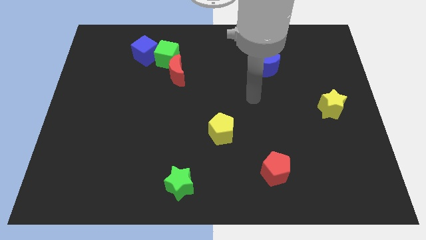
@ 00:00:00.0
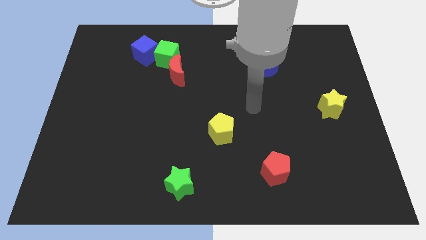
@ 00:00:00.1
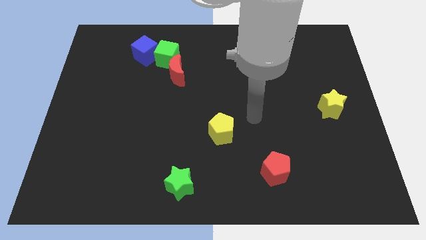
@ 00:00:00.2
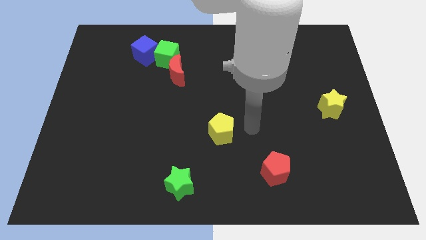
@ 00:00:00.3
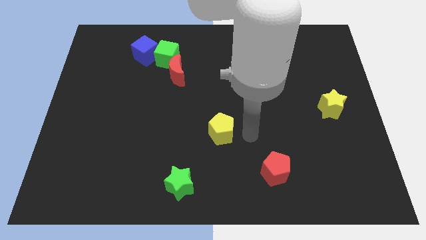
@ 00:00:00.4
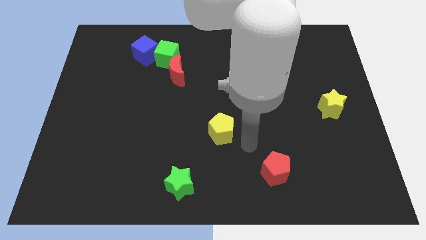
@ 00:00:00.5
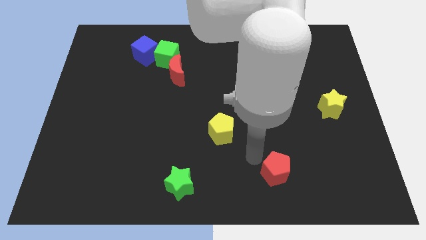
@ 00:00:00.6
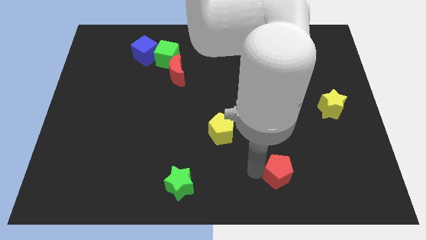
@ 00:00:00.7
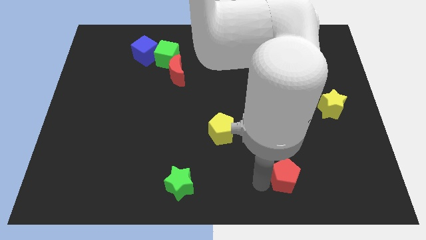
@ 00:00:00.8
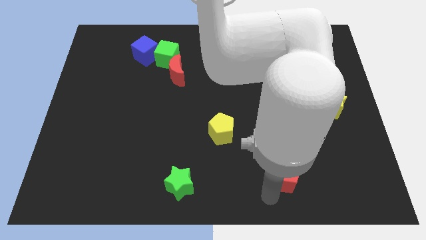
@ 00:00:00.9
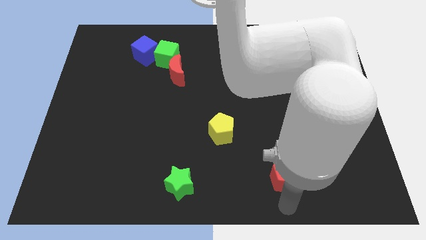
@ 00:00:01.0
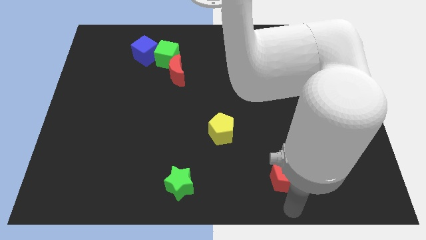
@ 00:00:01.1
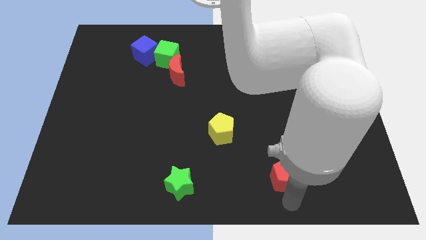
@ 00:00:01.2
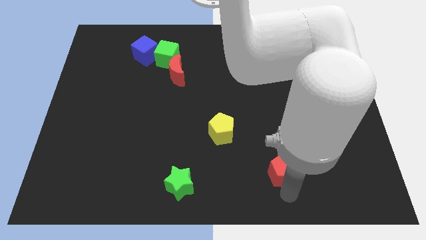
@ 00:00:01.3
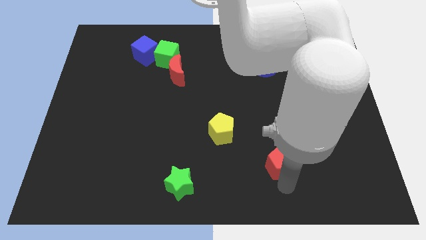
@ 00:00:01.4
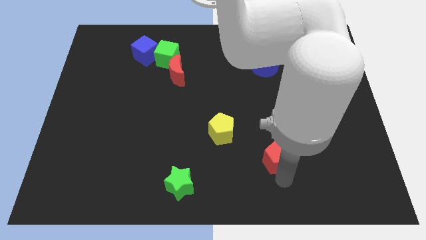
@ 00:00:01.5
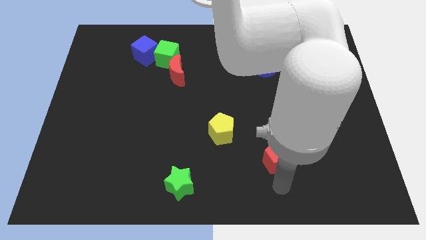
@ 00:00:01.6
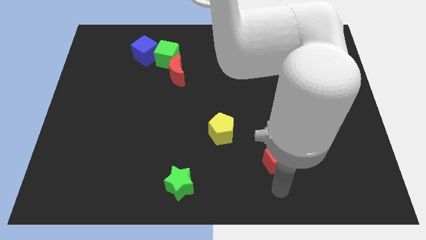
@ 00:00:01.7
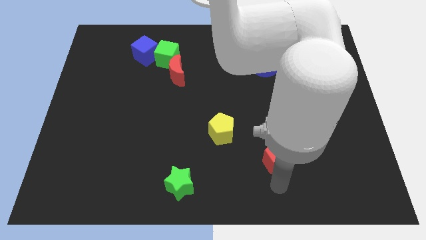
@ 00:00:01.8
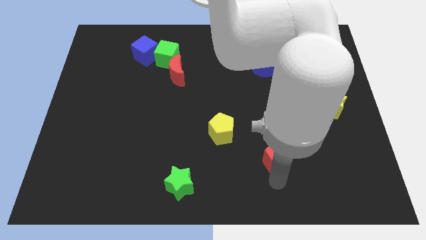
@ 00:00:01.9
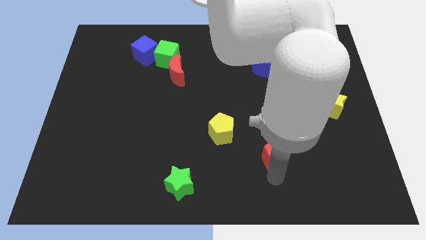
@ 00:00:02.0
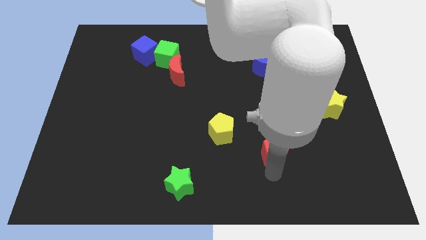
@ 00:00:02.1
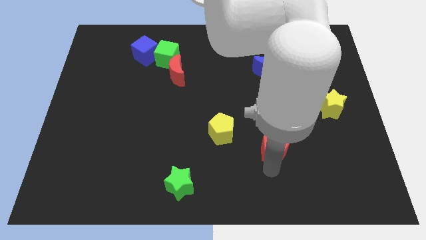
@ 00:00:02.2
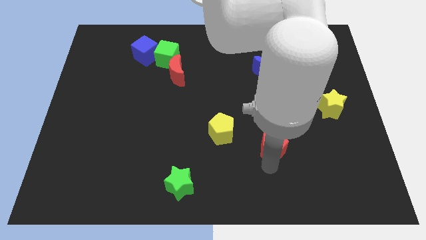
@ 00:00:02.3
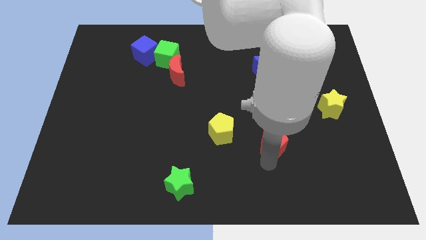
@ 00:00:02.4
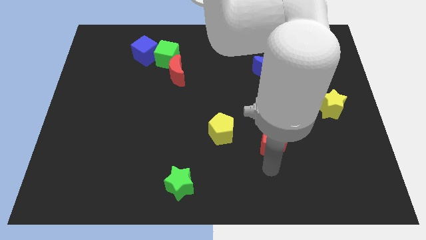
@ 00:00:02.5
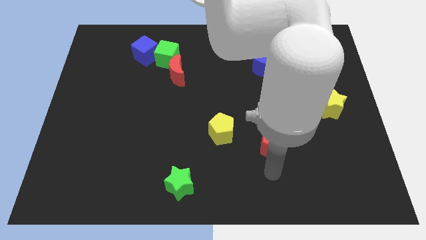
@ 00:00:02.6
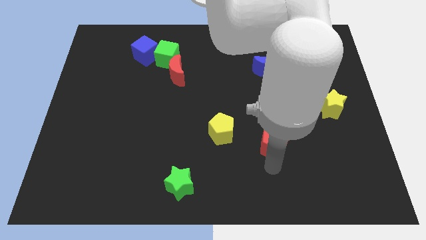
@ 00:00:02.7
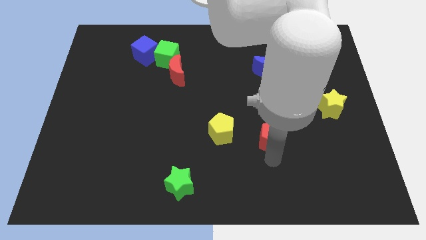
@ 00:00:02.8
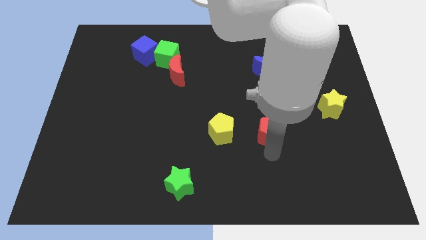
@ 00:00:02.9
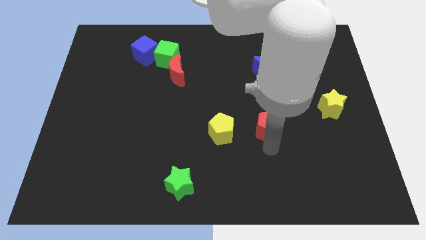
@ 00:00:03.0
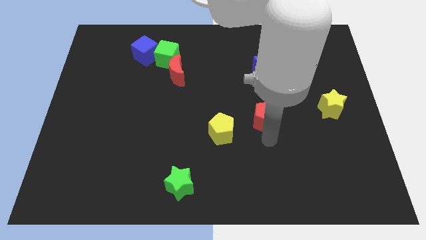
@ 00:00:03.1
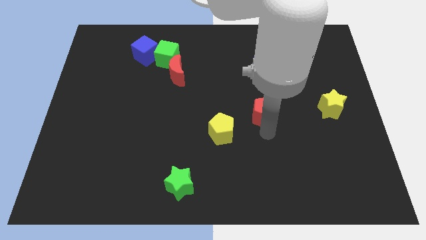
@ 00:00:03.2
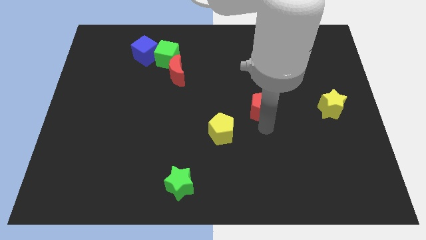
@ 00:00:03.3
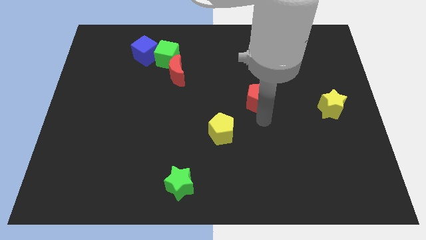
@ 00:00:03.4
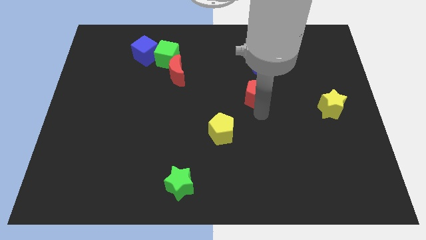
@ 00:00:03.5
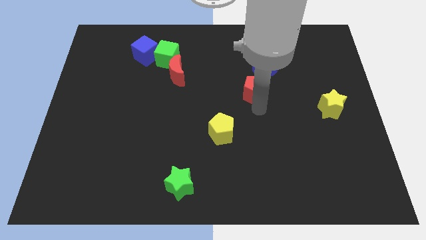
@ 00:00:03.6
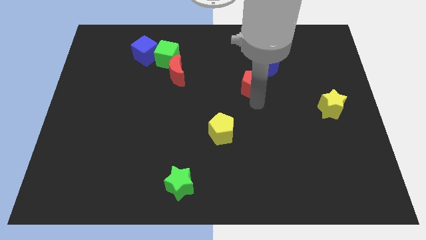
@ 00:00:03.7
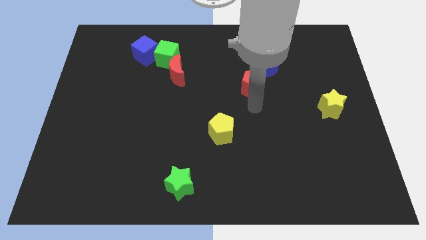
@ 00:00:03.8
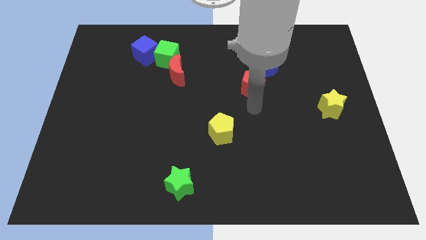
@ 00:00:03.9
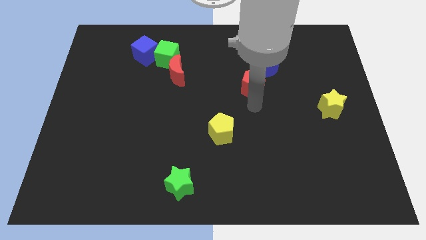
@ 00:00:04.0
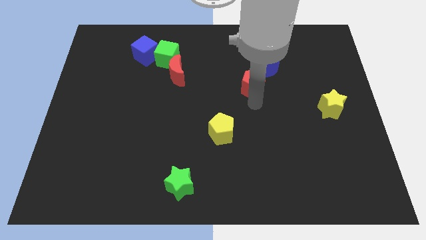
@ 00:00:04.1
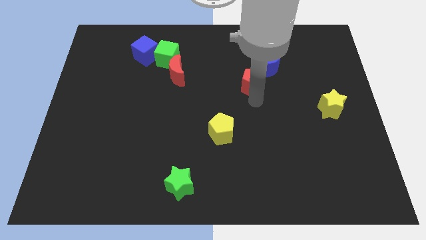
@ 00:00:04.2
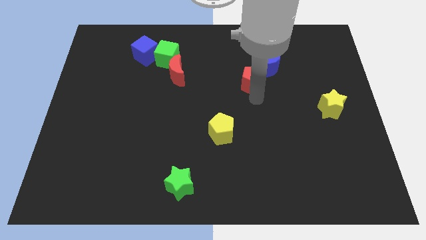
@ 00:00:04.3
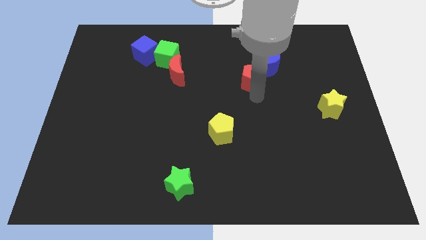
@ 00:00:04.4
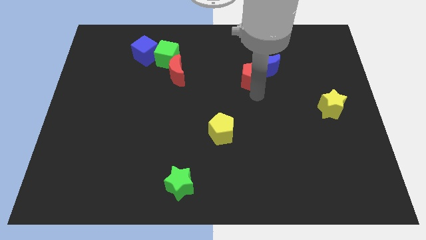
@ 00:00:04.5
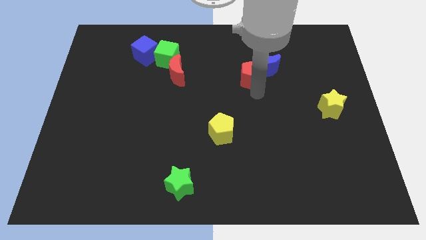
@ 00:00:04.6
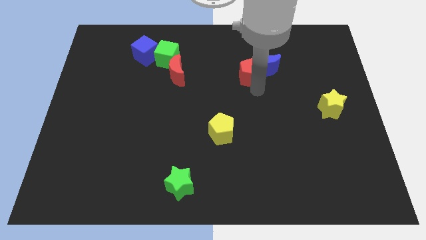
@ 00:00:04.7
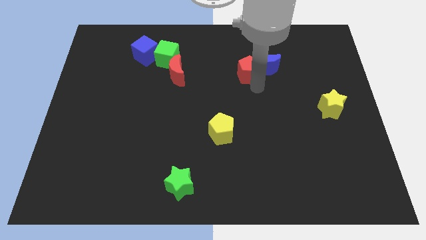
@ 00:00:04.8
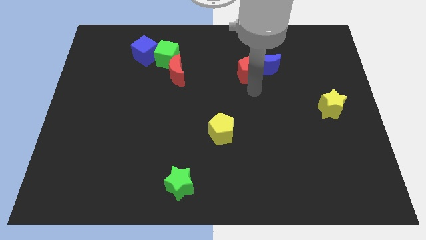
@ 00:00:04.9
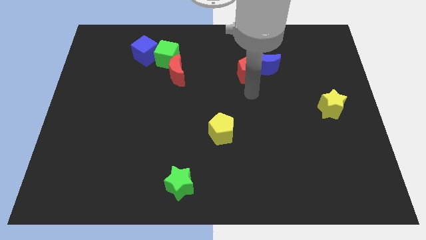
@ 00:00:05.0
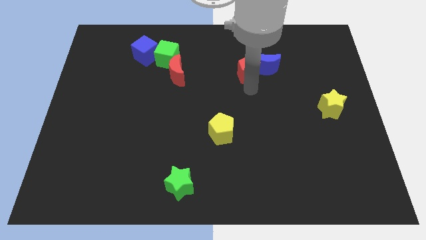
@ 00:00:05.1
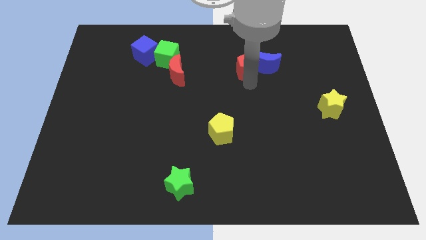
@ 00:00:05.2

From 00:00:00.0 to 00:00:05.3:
slide the red pentagon to the top left side of the blue moon

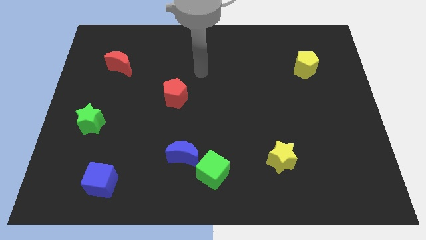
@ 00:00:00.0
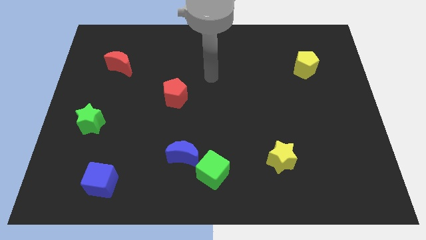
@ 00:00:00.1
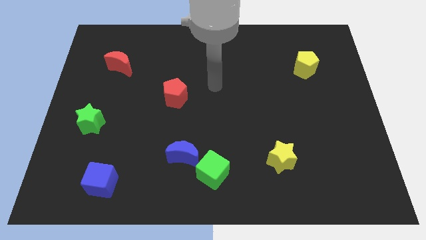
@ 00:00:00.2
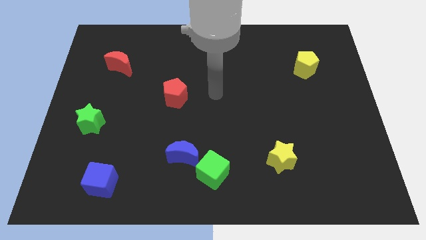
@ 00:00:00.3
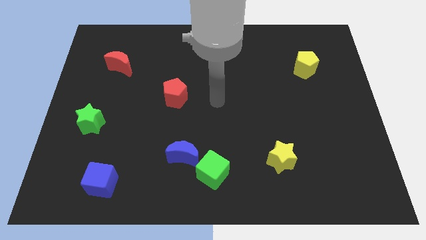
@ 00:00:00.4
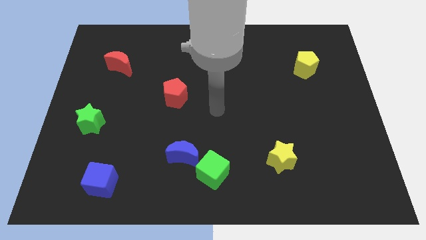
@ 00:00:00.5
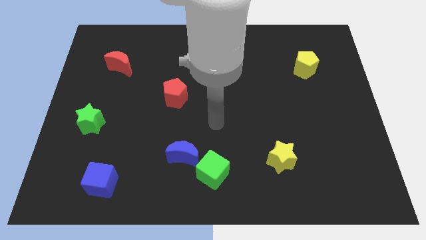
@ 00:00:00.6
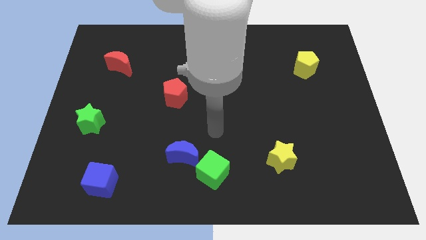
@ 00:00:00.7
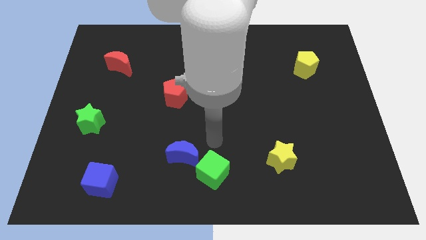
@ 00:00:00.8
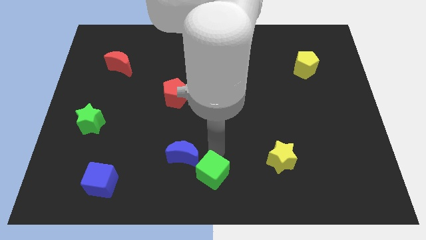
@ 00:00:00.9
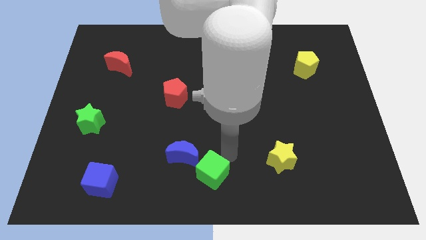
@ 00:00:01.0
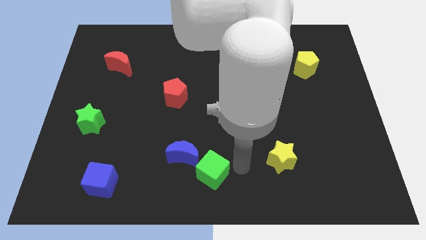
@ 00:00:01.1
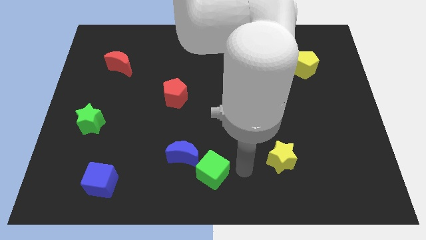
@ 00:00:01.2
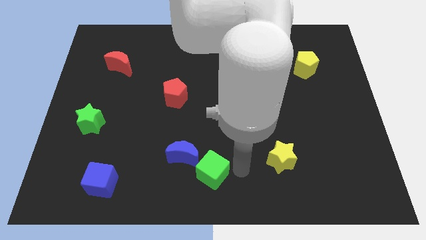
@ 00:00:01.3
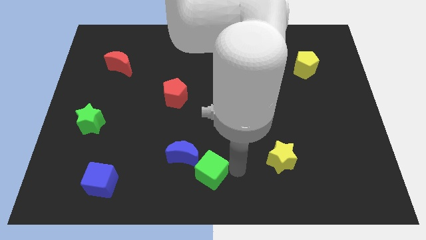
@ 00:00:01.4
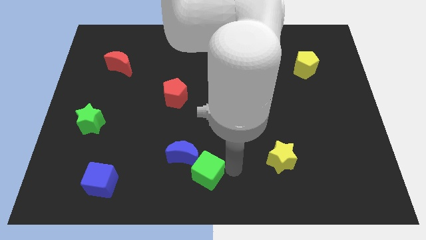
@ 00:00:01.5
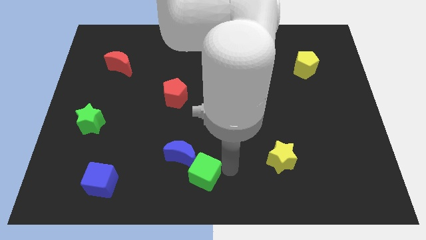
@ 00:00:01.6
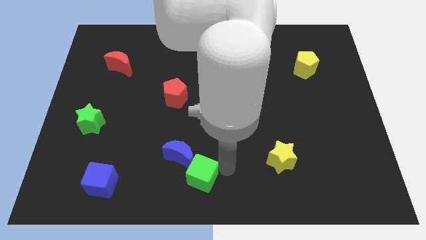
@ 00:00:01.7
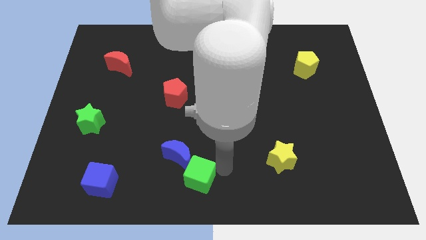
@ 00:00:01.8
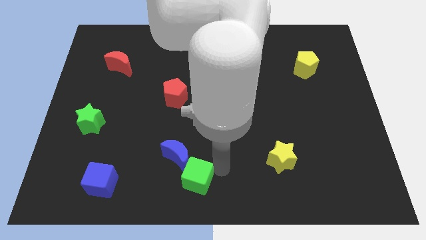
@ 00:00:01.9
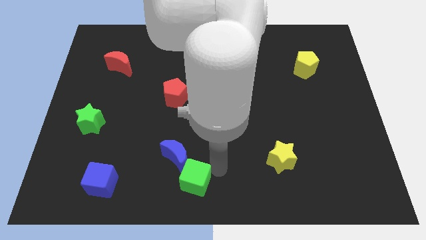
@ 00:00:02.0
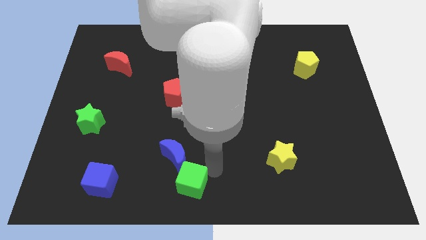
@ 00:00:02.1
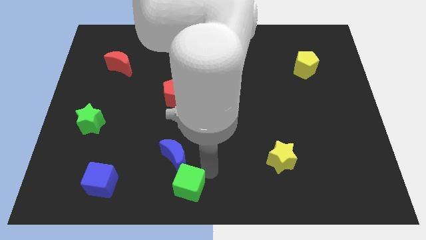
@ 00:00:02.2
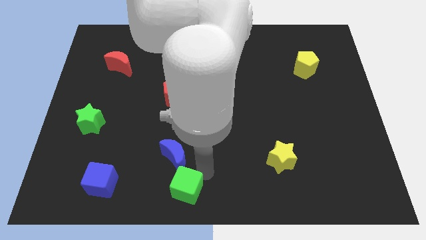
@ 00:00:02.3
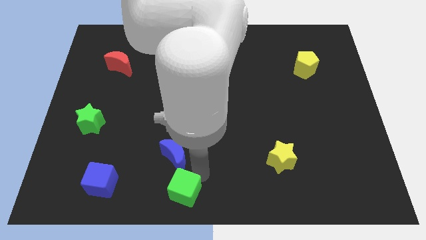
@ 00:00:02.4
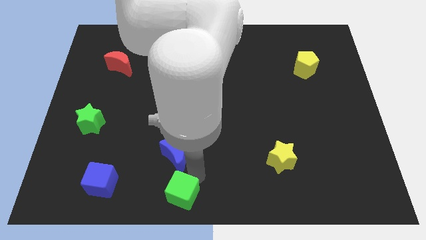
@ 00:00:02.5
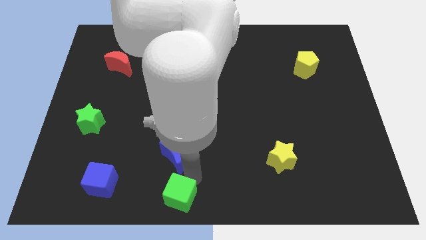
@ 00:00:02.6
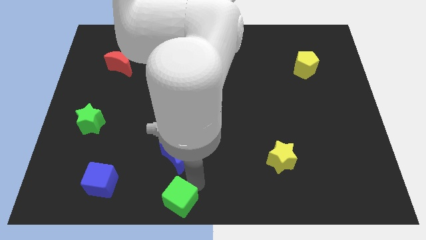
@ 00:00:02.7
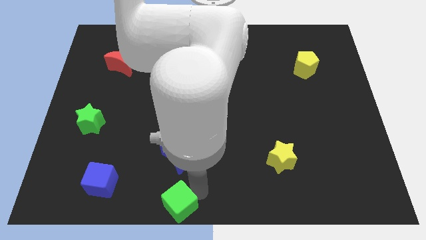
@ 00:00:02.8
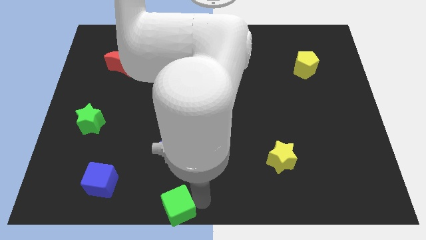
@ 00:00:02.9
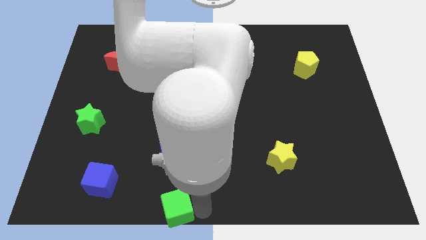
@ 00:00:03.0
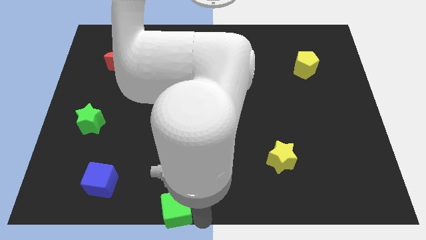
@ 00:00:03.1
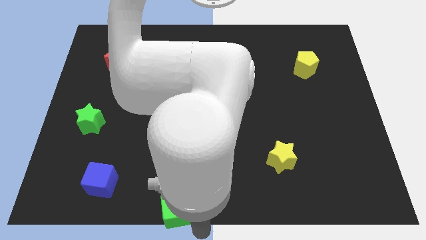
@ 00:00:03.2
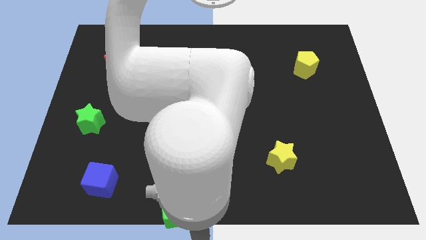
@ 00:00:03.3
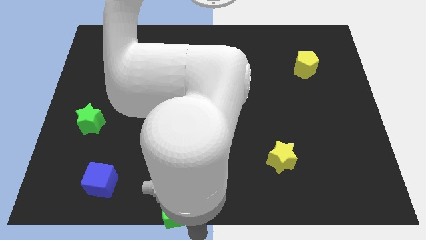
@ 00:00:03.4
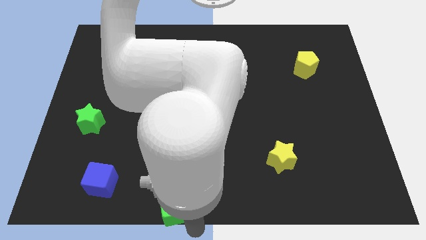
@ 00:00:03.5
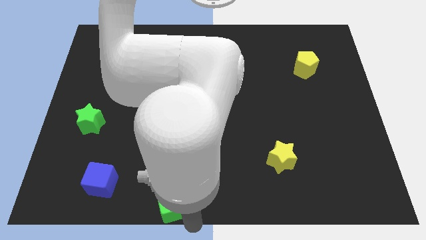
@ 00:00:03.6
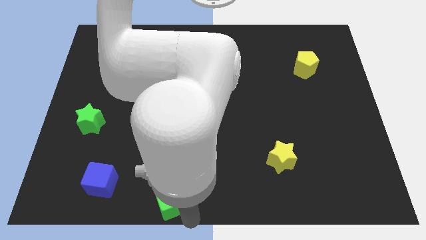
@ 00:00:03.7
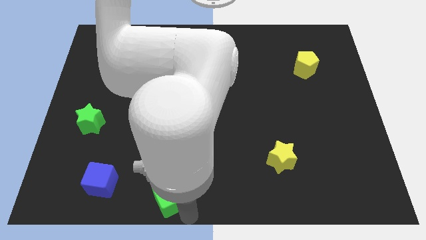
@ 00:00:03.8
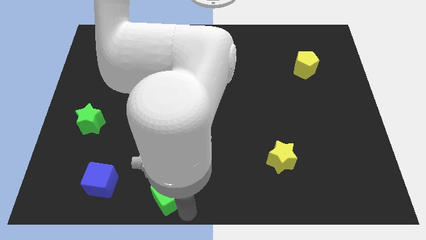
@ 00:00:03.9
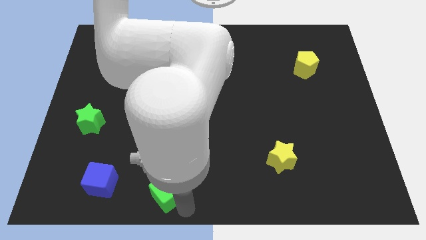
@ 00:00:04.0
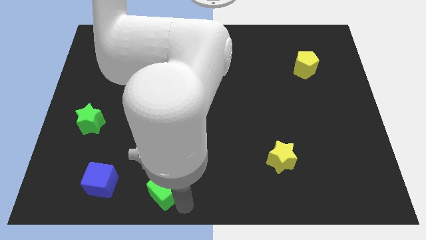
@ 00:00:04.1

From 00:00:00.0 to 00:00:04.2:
move the green cube to the bottom left of the blue moon
